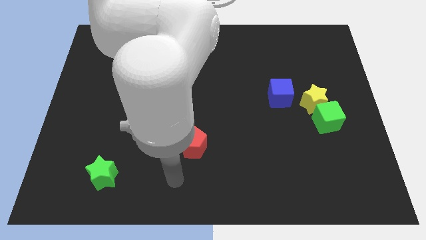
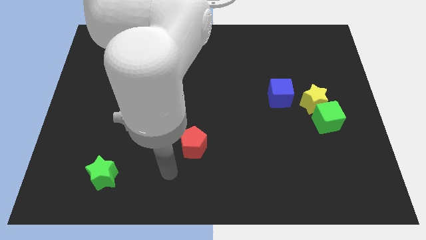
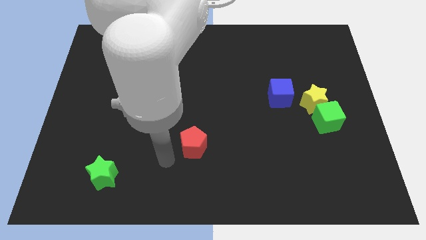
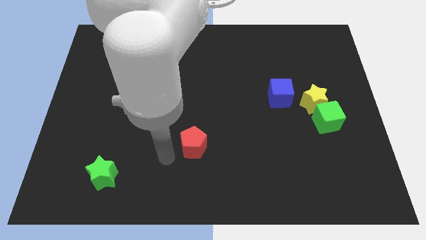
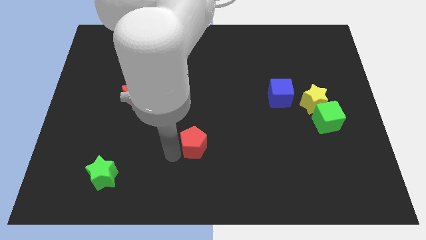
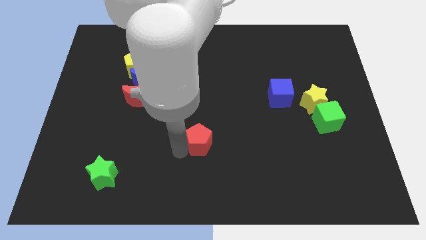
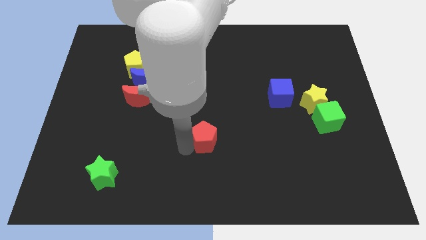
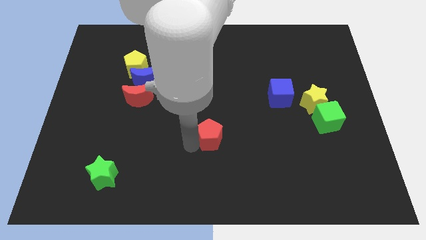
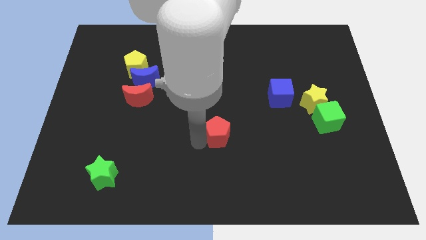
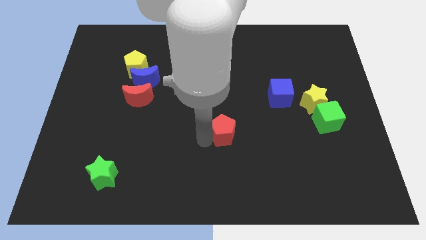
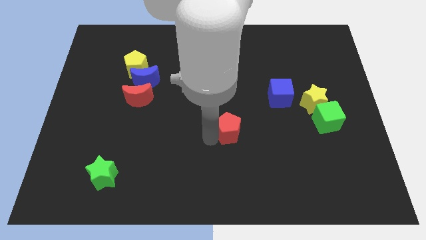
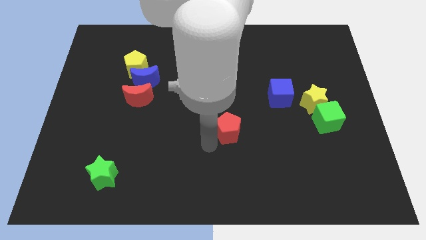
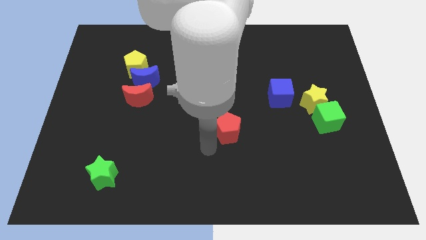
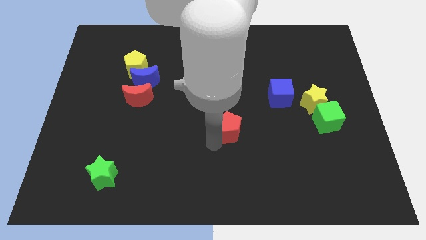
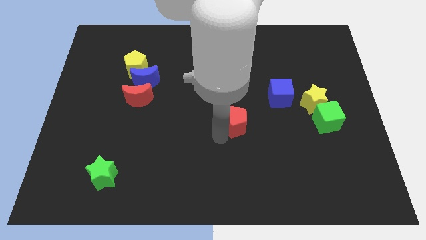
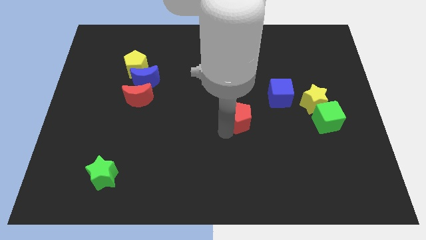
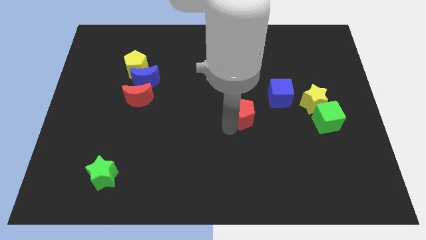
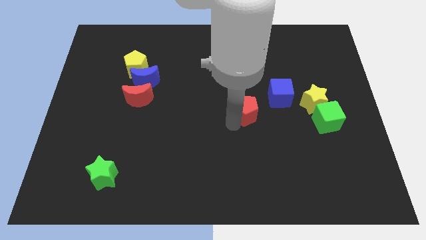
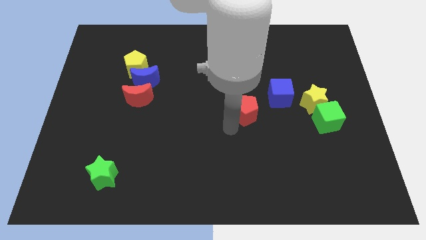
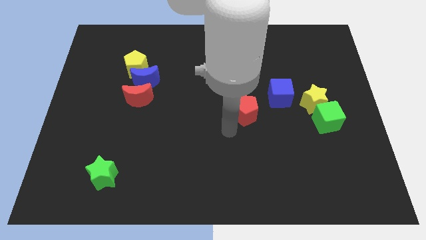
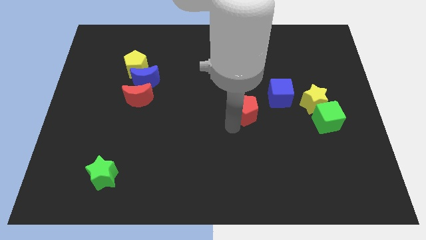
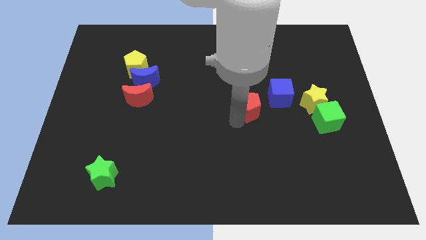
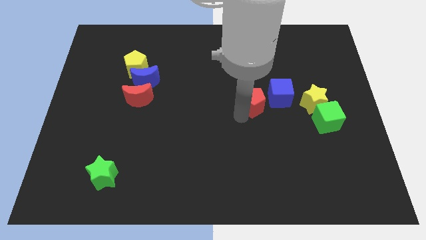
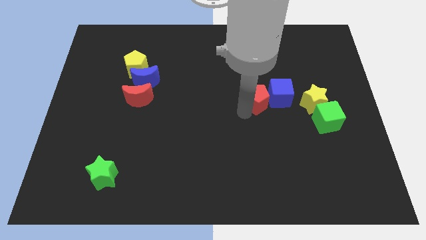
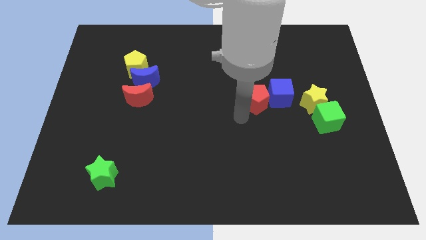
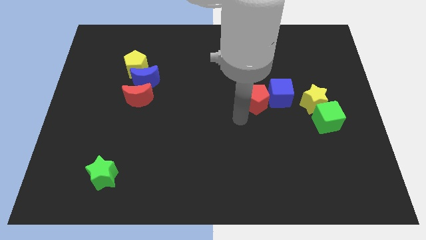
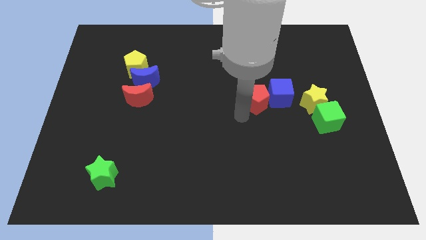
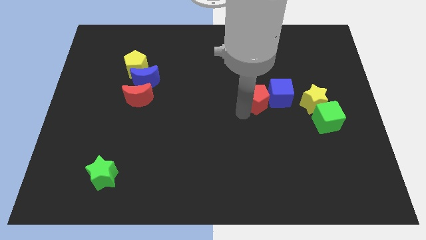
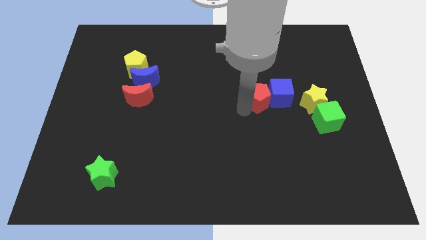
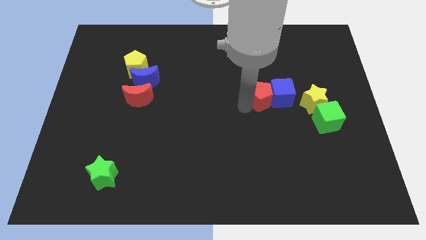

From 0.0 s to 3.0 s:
move the red pentagon upwards and right diagonally

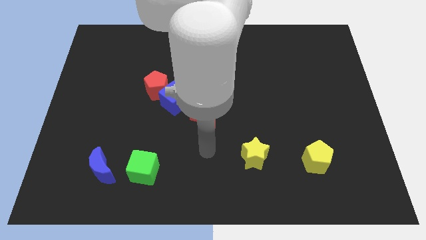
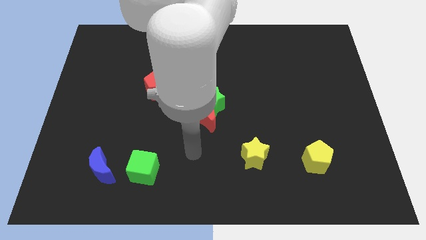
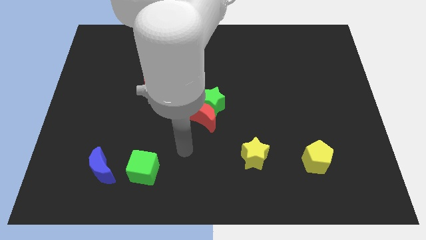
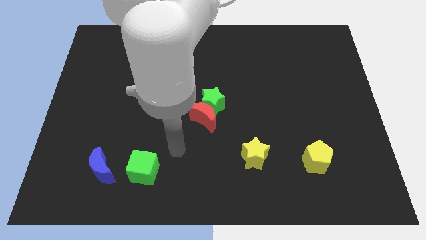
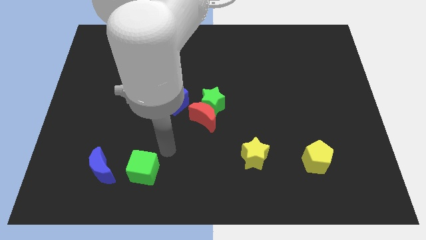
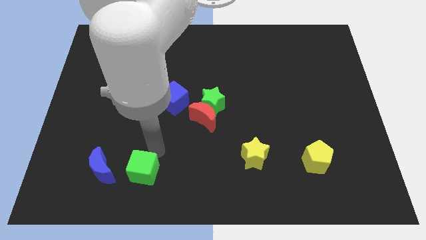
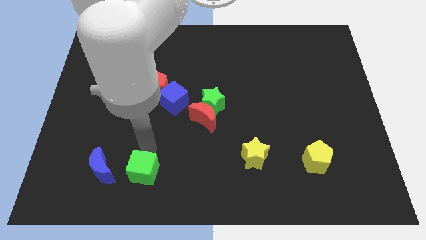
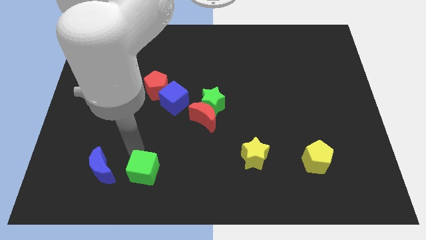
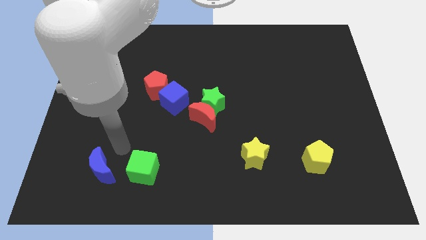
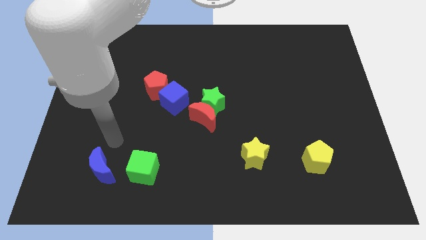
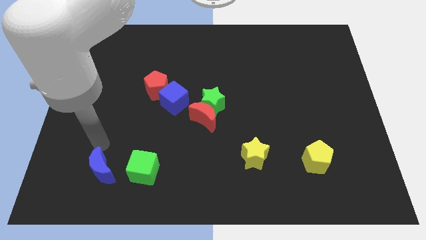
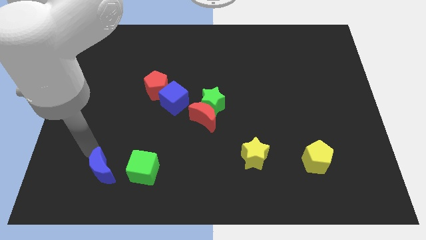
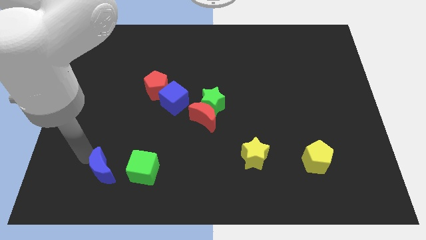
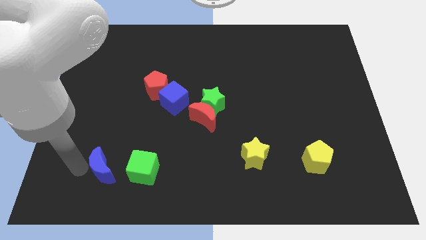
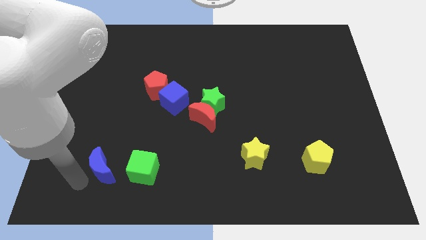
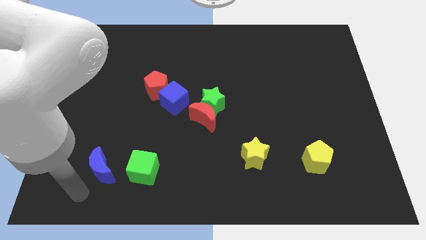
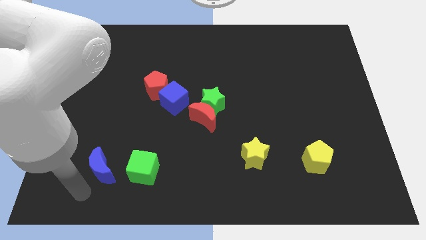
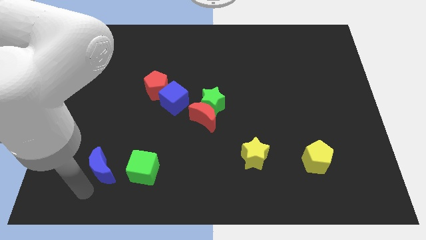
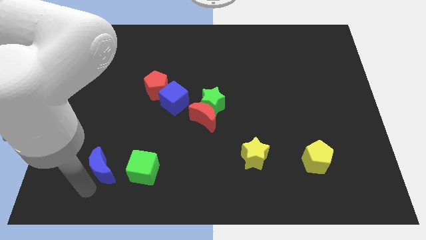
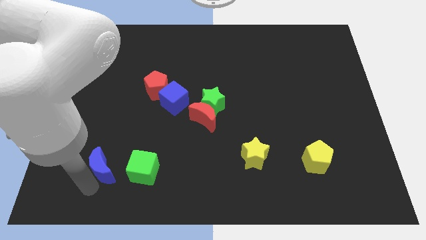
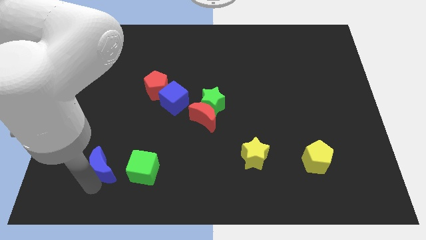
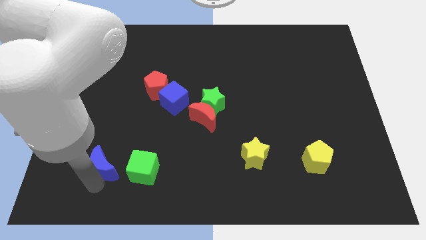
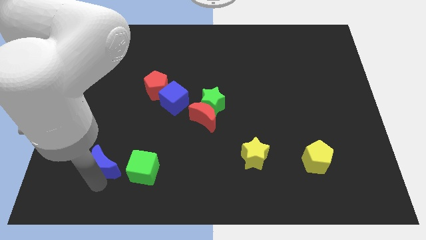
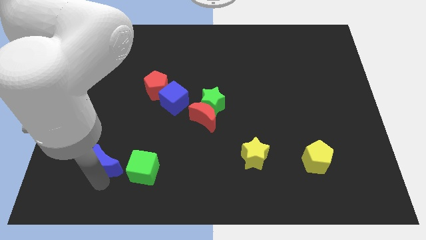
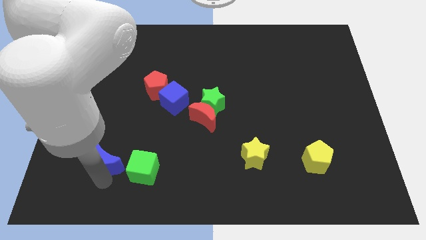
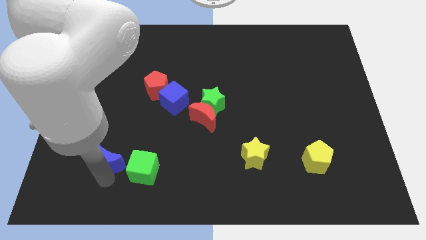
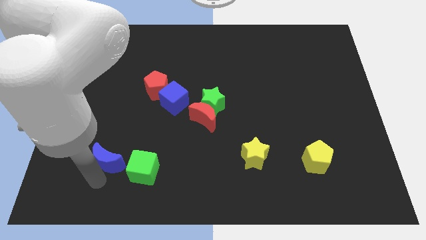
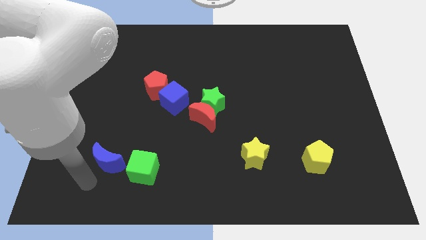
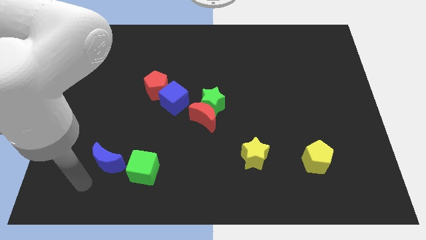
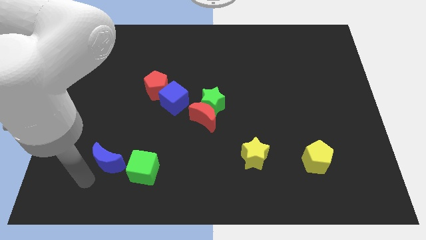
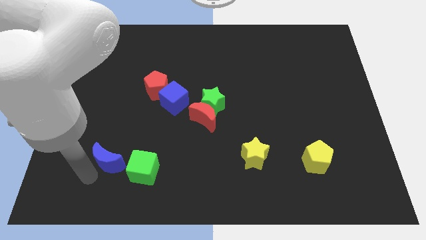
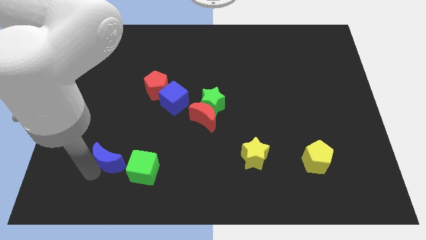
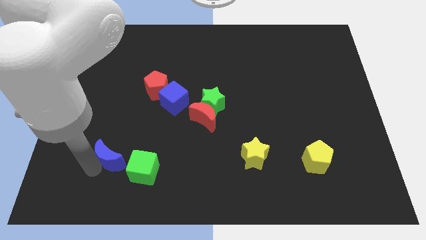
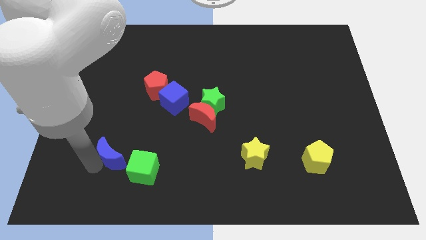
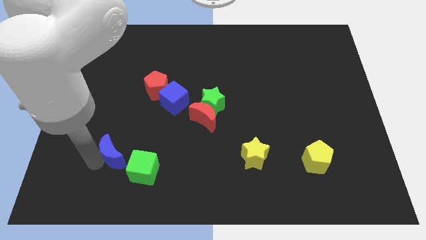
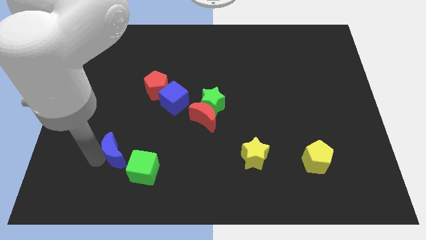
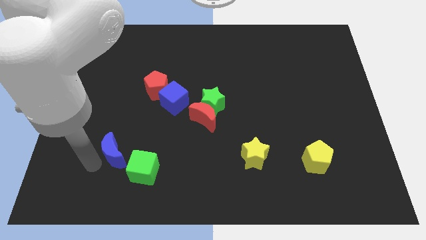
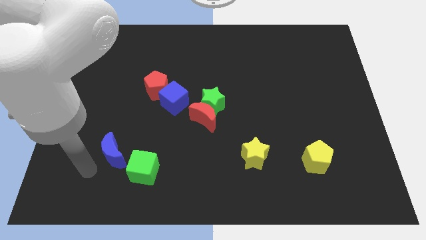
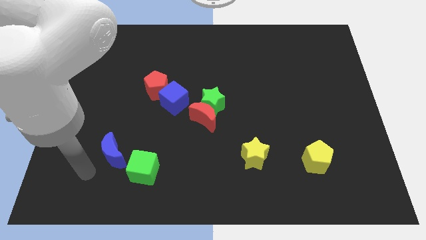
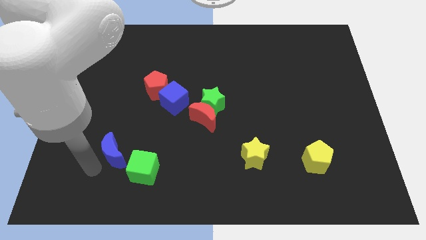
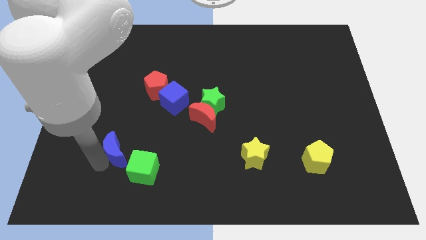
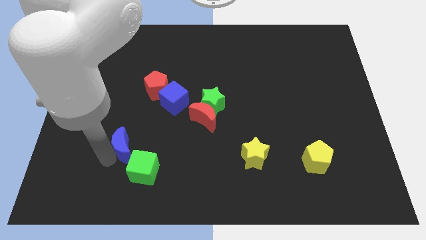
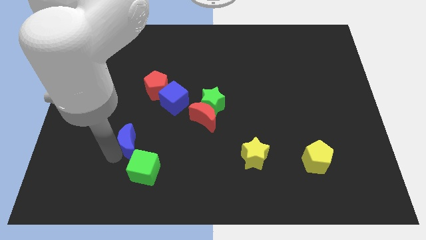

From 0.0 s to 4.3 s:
slide the blue moon slightly diagonally upwards and right

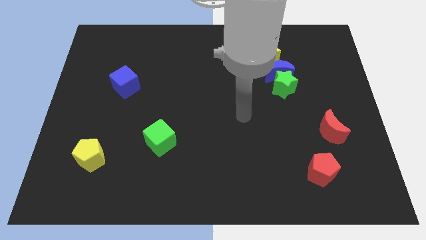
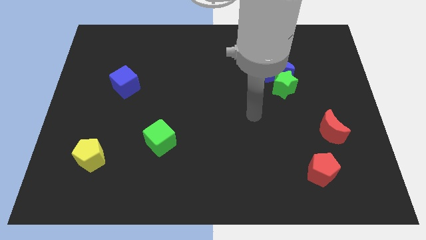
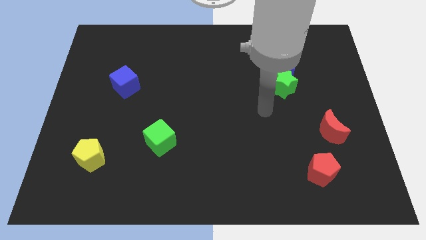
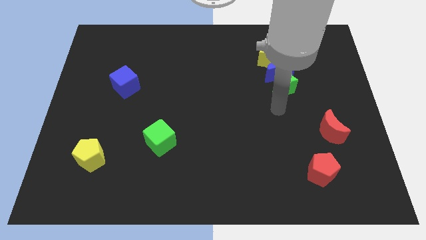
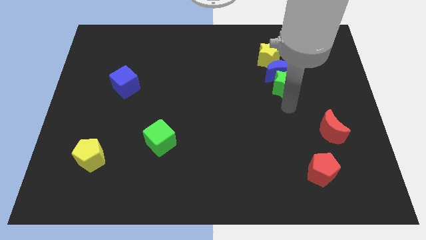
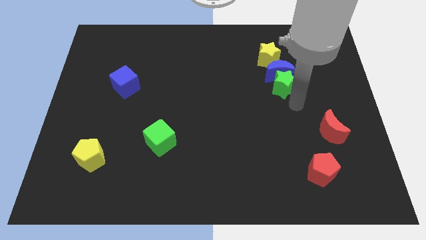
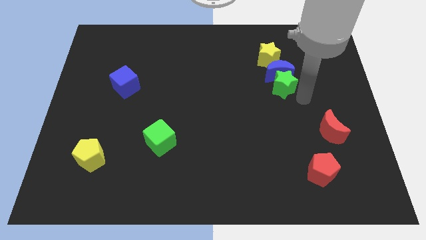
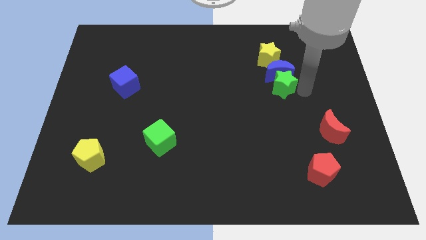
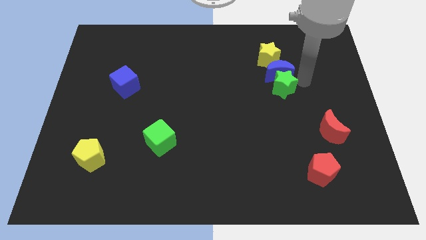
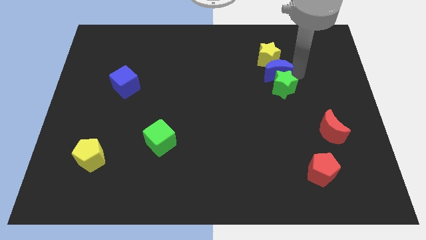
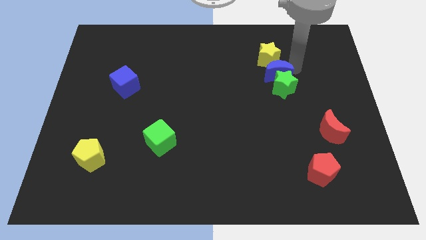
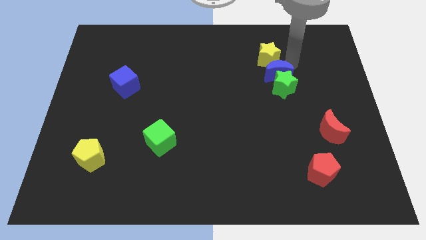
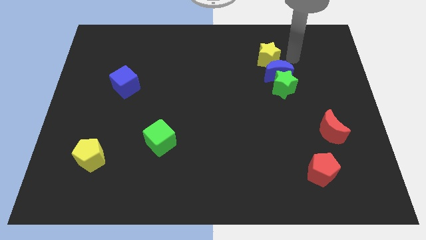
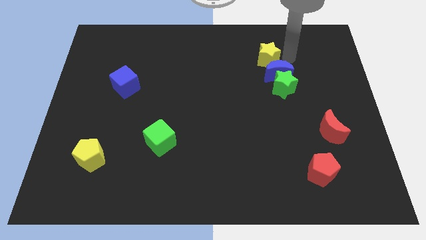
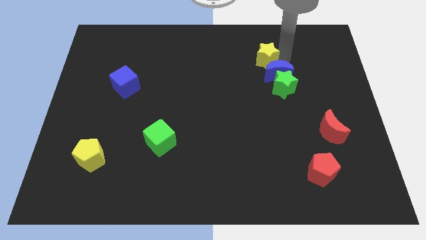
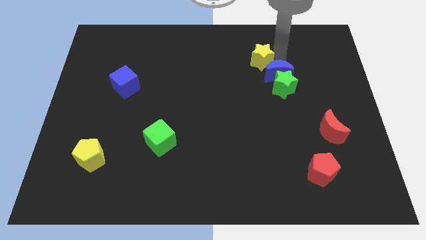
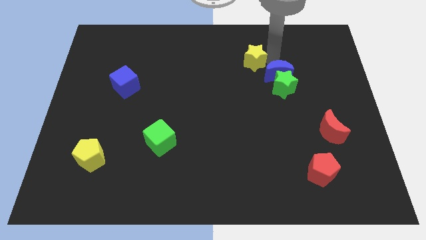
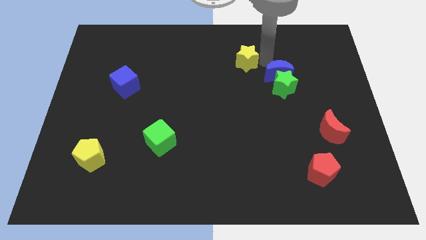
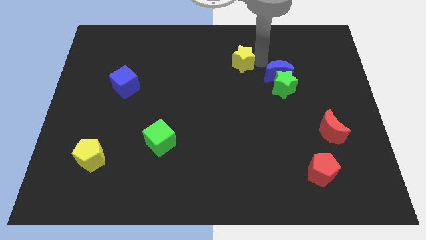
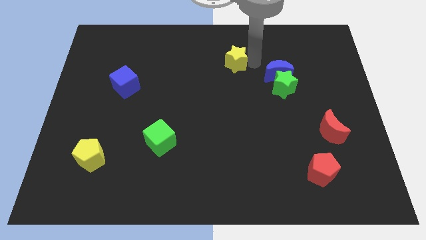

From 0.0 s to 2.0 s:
slide the yellow star left somewhat
